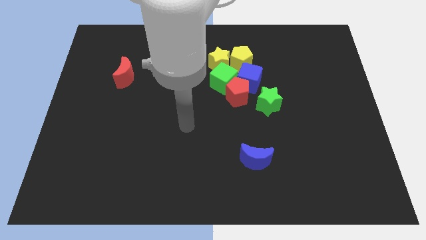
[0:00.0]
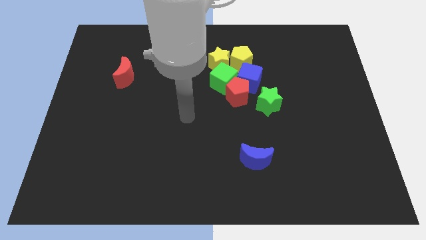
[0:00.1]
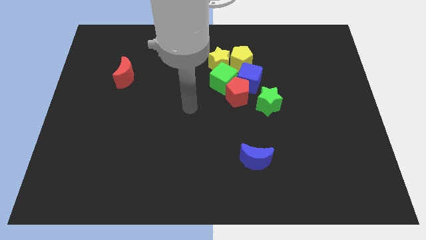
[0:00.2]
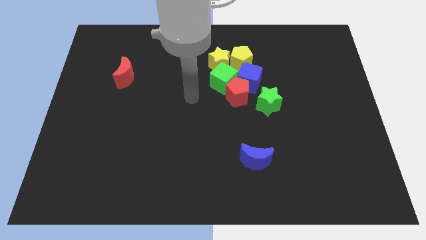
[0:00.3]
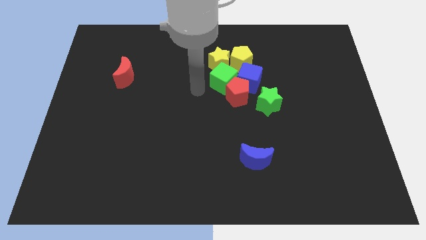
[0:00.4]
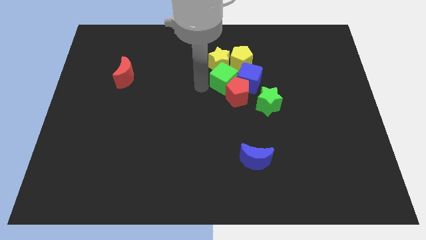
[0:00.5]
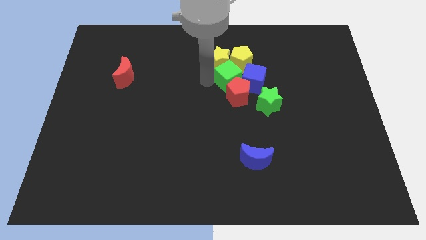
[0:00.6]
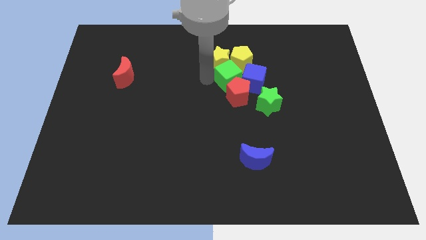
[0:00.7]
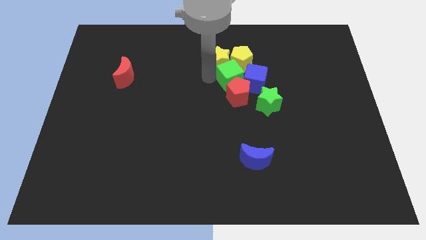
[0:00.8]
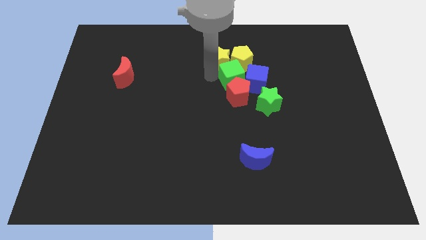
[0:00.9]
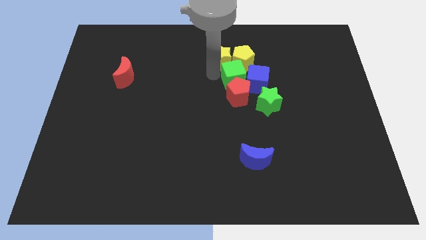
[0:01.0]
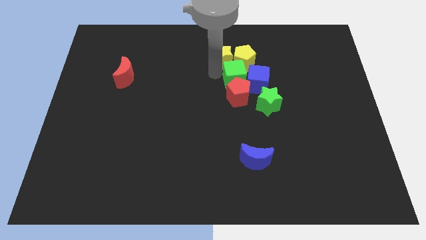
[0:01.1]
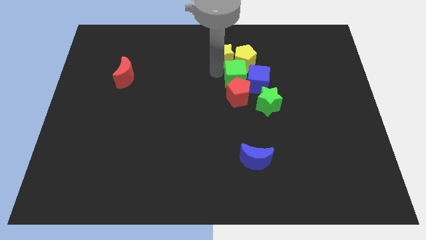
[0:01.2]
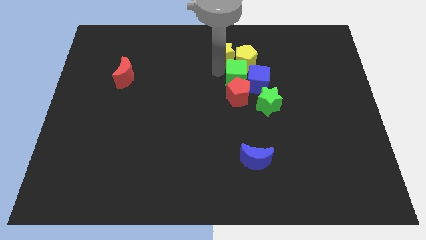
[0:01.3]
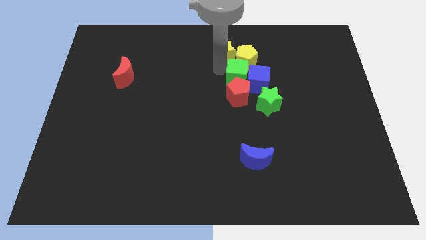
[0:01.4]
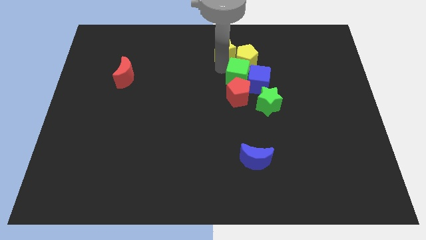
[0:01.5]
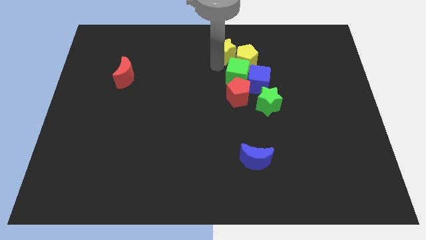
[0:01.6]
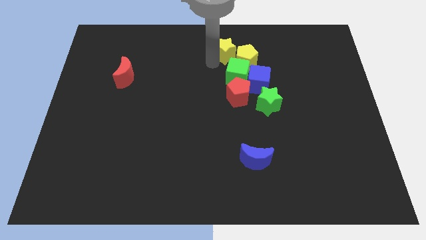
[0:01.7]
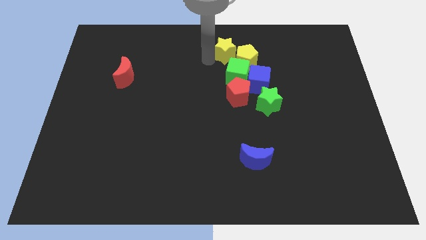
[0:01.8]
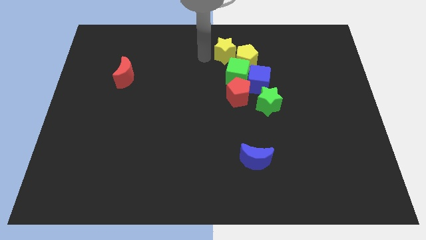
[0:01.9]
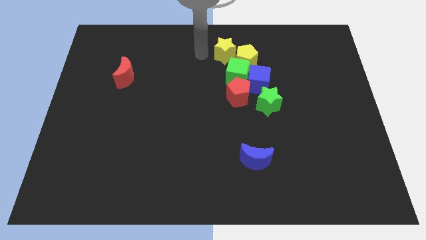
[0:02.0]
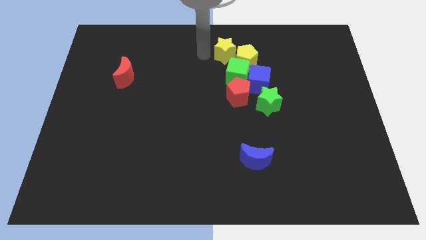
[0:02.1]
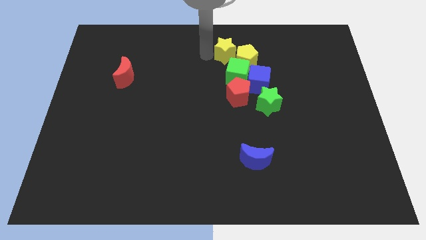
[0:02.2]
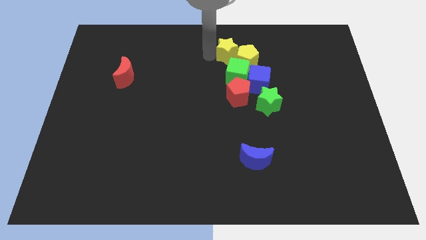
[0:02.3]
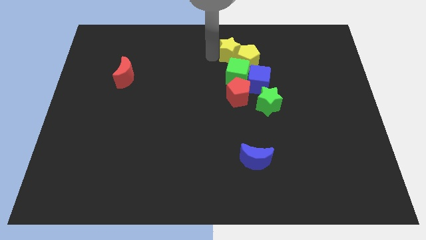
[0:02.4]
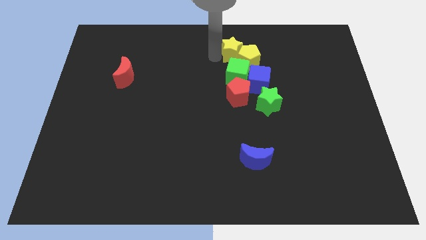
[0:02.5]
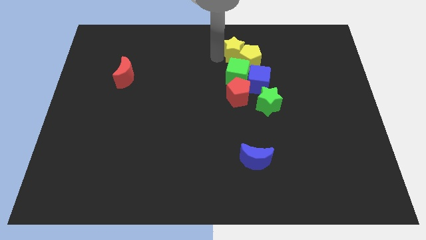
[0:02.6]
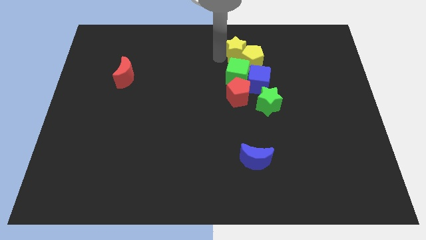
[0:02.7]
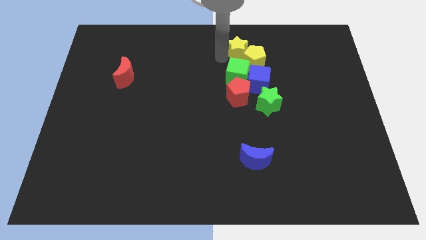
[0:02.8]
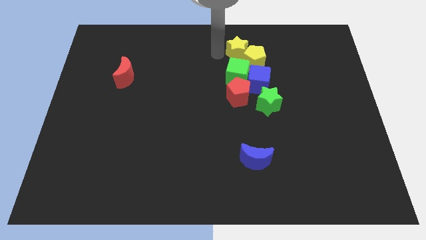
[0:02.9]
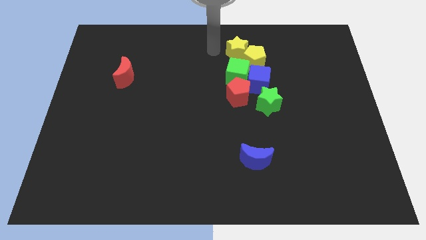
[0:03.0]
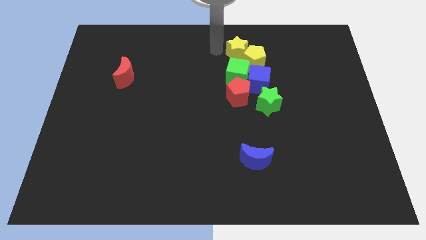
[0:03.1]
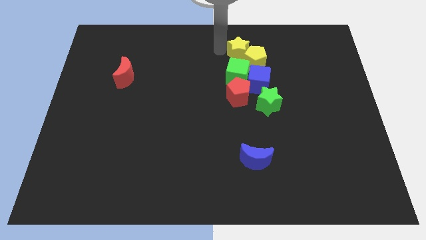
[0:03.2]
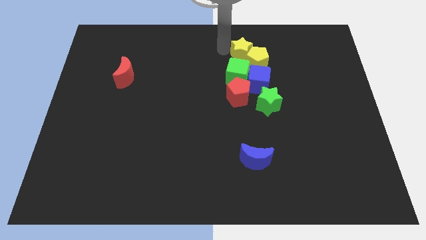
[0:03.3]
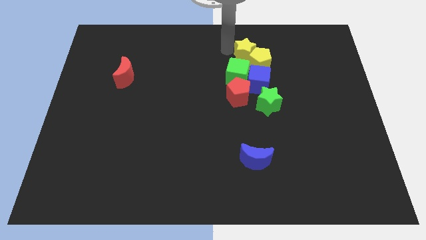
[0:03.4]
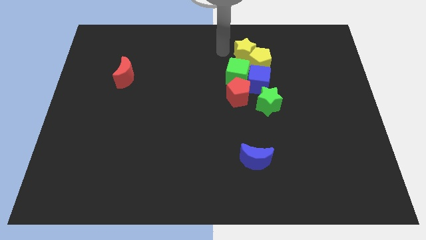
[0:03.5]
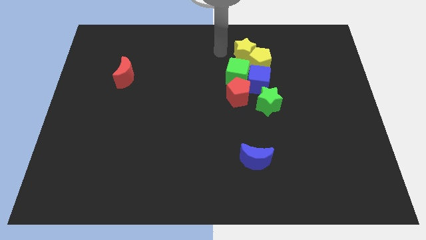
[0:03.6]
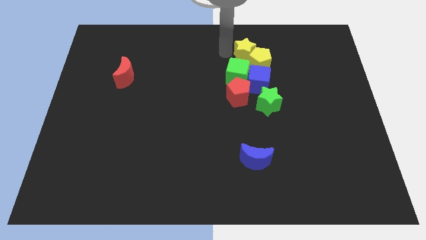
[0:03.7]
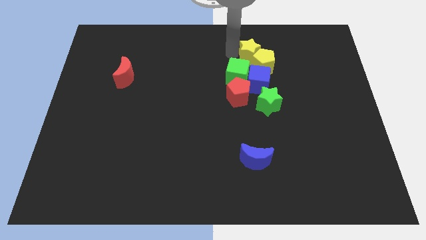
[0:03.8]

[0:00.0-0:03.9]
slide the yellow star slightly to the right

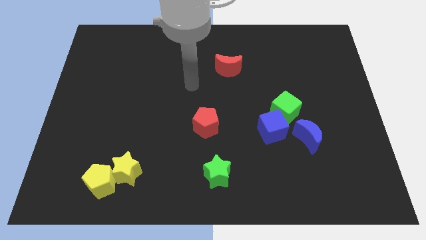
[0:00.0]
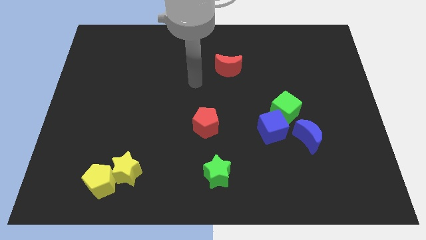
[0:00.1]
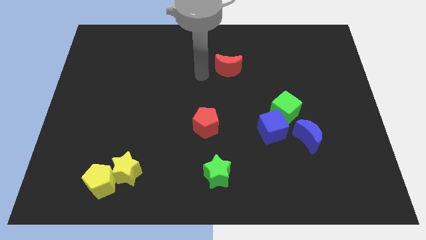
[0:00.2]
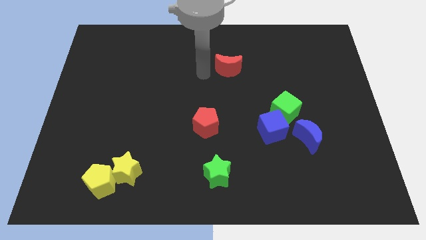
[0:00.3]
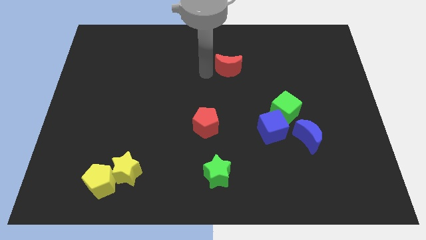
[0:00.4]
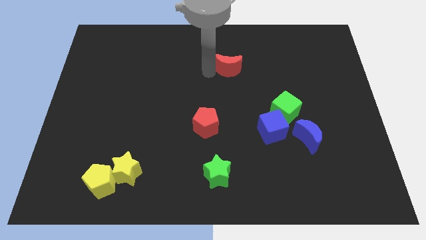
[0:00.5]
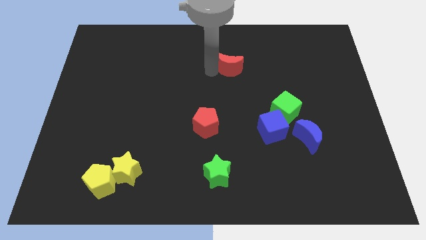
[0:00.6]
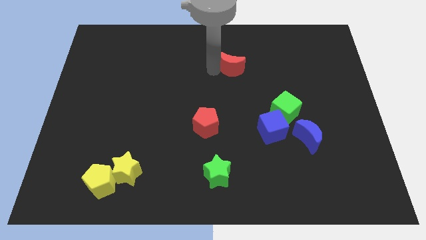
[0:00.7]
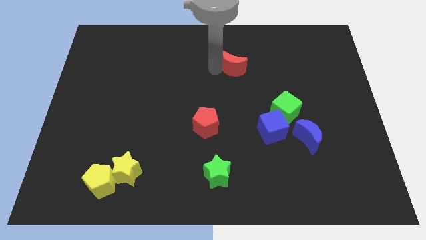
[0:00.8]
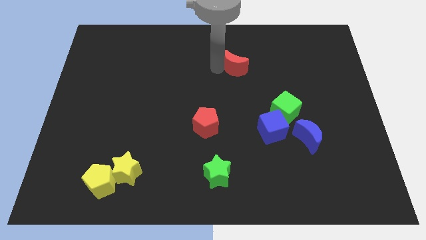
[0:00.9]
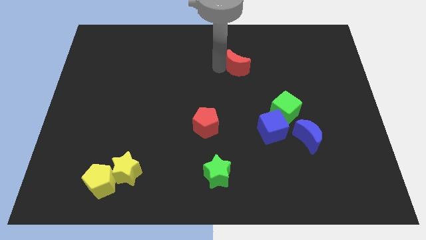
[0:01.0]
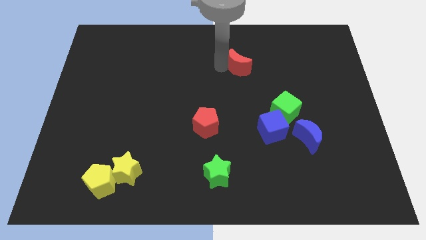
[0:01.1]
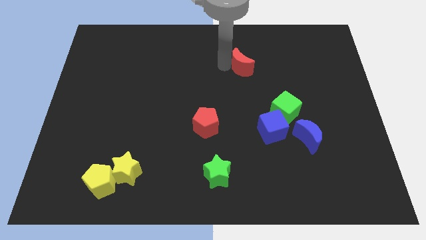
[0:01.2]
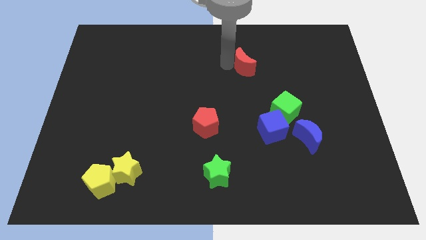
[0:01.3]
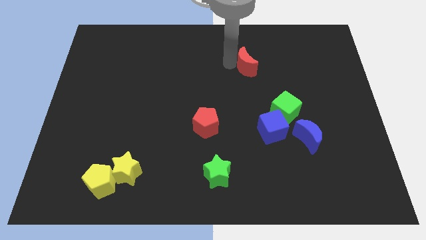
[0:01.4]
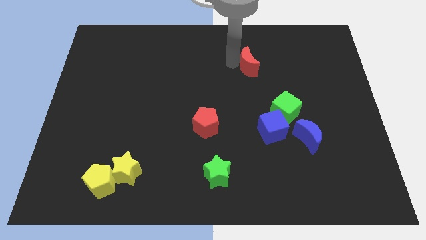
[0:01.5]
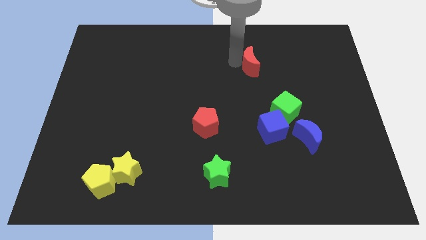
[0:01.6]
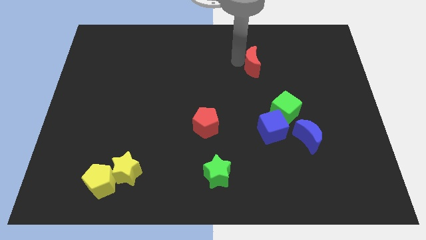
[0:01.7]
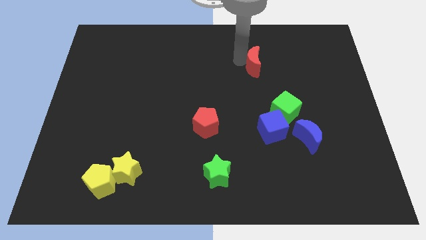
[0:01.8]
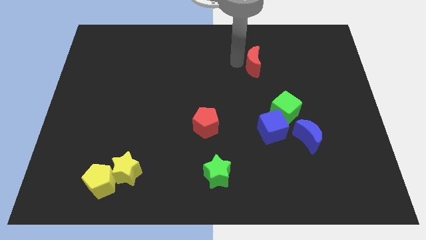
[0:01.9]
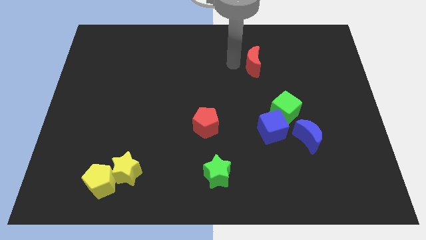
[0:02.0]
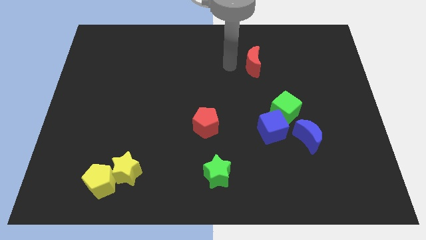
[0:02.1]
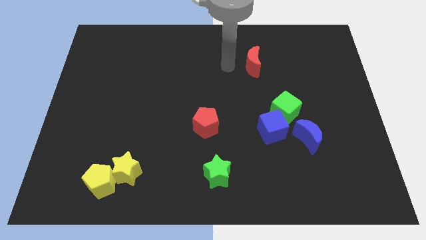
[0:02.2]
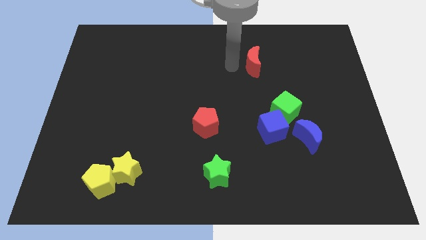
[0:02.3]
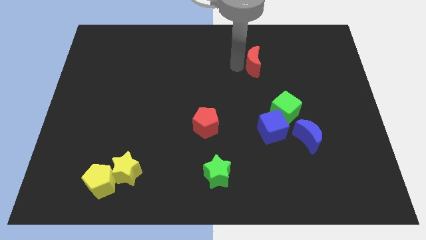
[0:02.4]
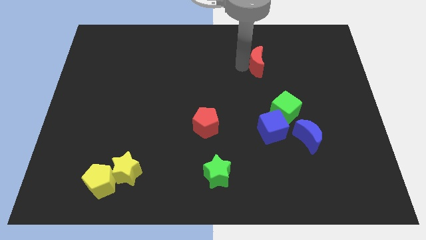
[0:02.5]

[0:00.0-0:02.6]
move the red moon a little bit right

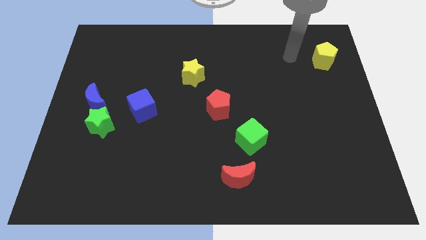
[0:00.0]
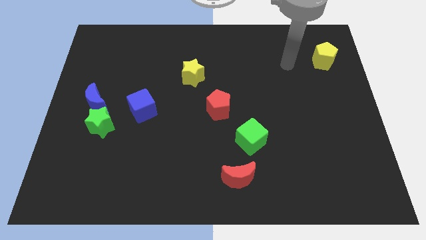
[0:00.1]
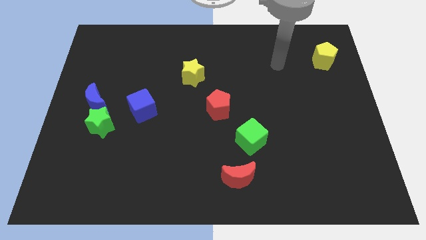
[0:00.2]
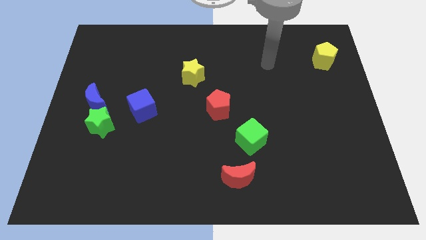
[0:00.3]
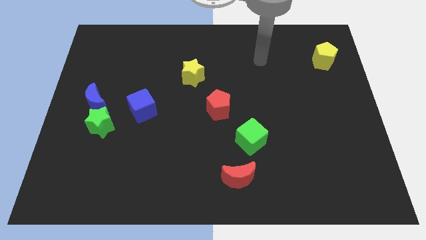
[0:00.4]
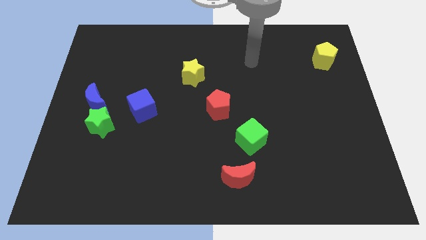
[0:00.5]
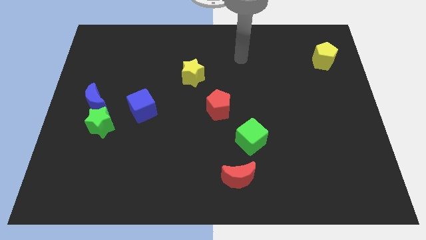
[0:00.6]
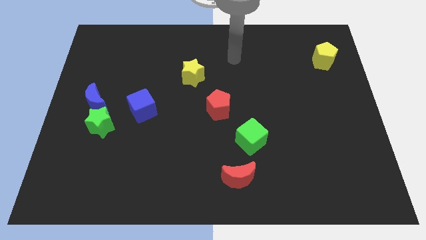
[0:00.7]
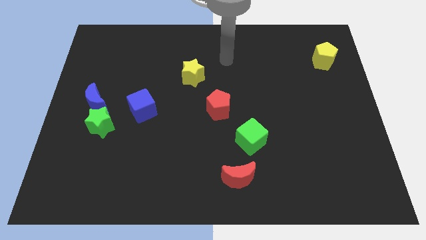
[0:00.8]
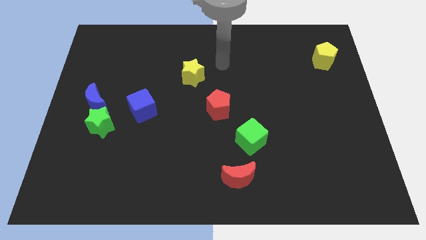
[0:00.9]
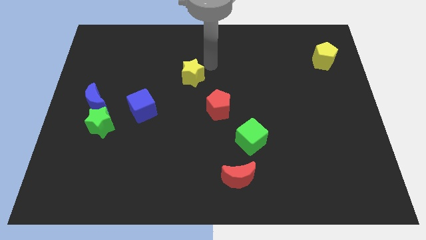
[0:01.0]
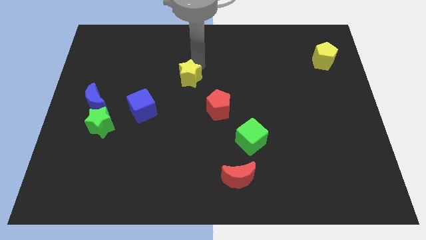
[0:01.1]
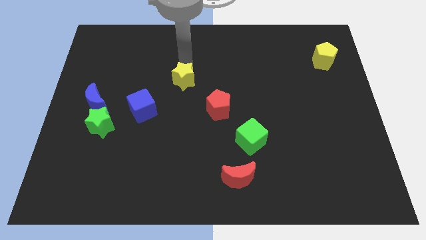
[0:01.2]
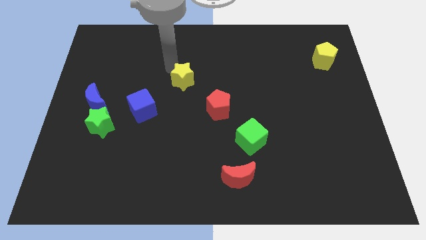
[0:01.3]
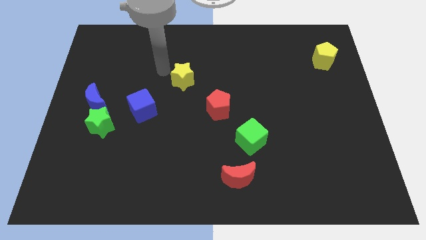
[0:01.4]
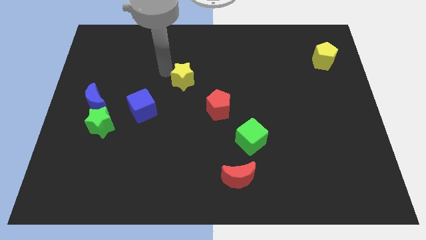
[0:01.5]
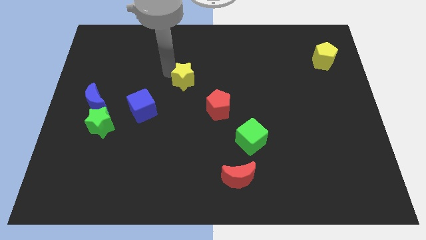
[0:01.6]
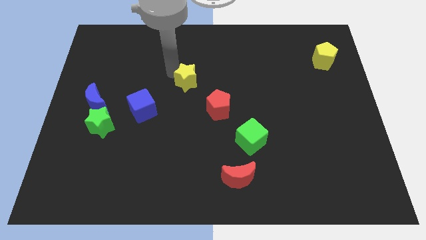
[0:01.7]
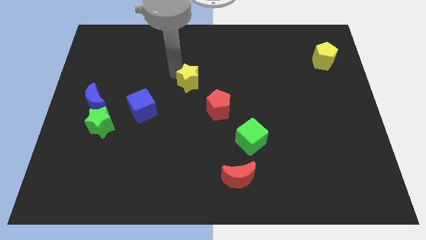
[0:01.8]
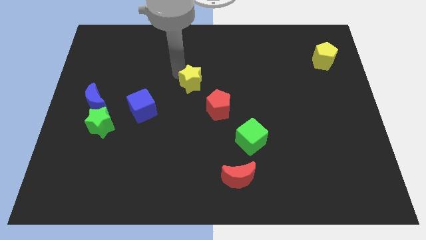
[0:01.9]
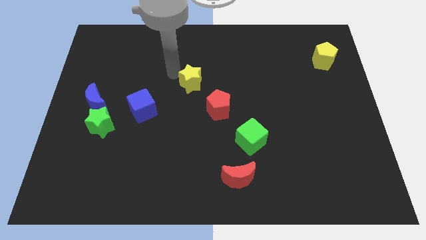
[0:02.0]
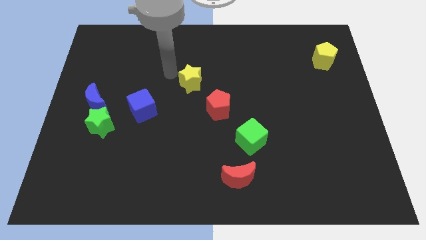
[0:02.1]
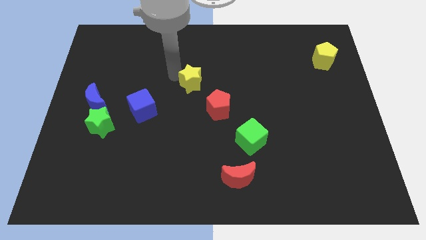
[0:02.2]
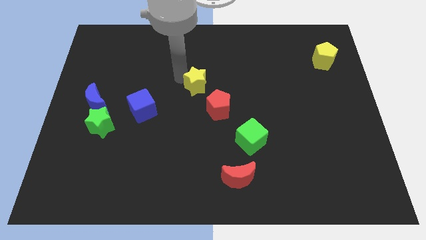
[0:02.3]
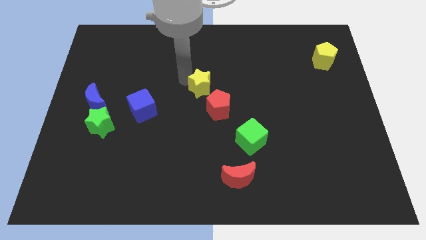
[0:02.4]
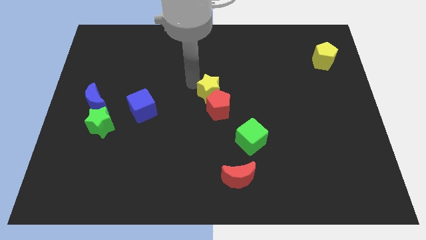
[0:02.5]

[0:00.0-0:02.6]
move the yellow star slightly down and to the right diagonally
